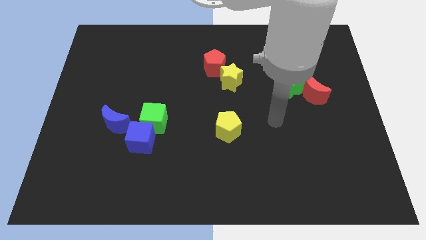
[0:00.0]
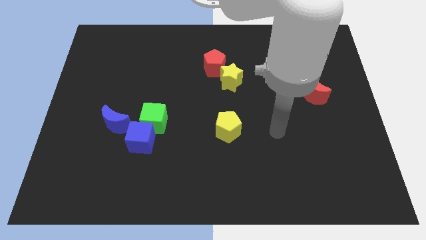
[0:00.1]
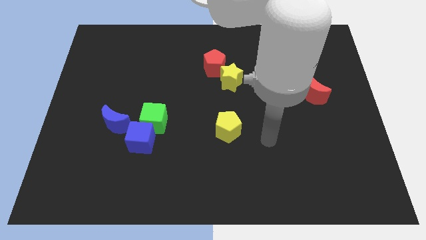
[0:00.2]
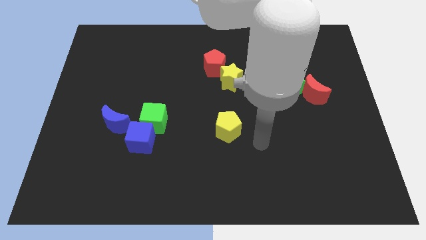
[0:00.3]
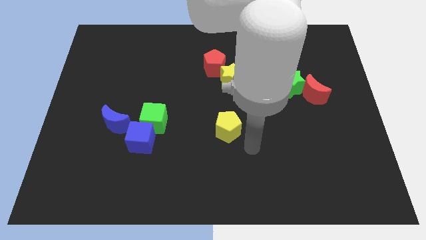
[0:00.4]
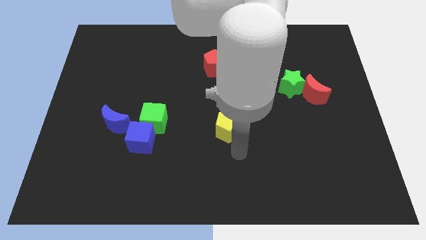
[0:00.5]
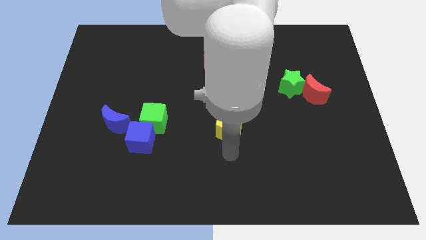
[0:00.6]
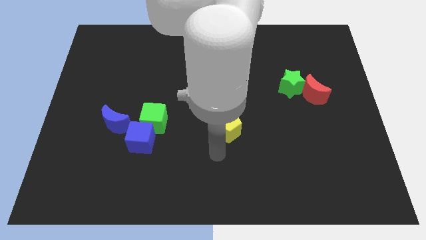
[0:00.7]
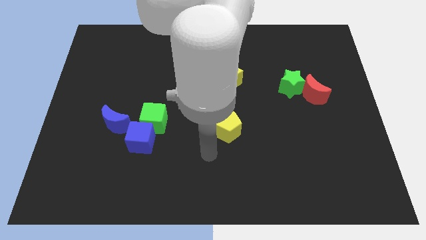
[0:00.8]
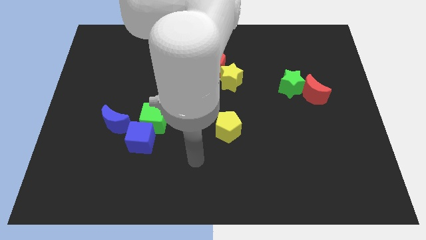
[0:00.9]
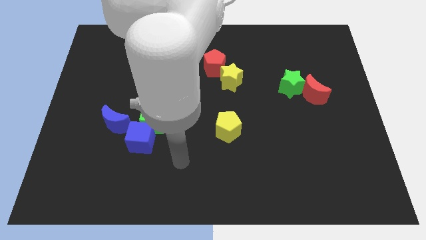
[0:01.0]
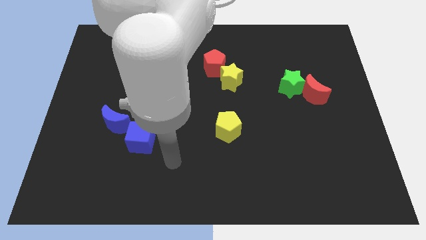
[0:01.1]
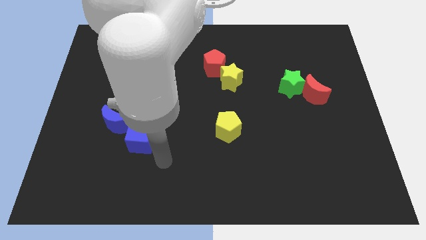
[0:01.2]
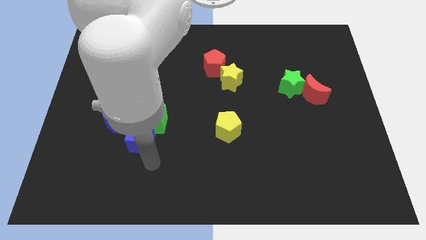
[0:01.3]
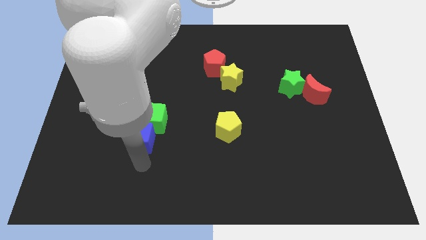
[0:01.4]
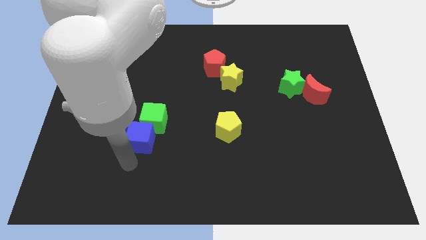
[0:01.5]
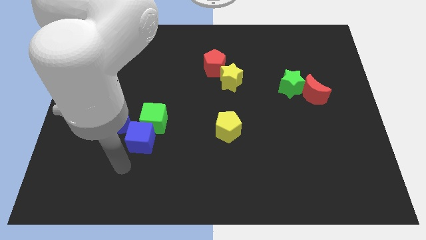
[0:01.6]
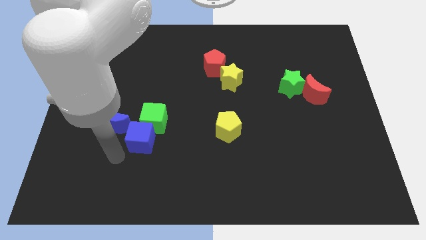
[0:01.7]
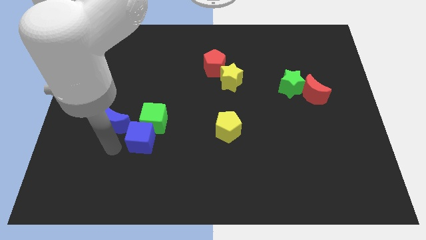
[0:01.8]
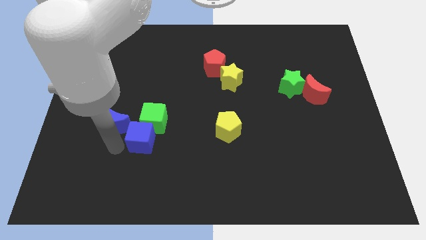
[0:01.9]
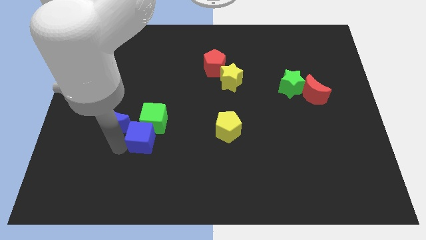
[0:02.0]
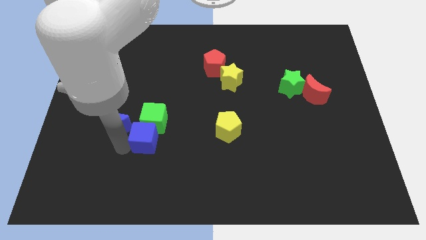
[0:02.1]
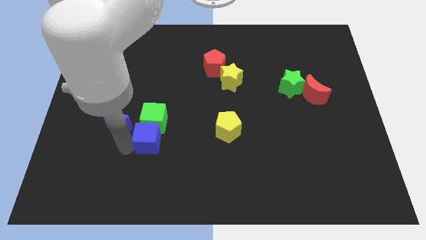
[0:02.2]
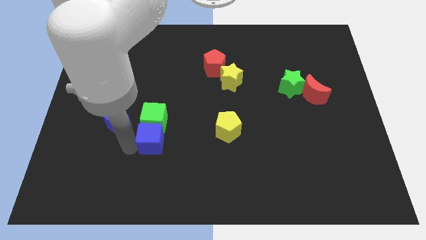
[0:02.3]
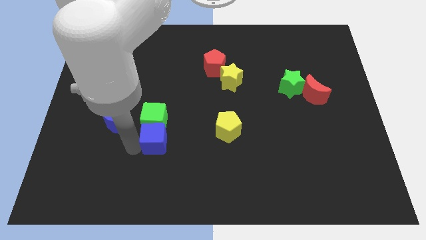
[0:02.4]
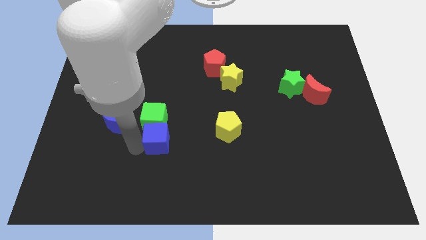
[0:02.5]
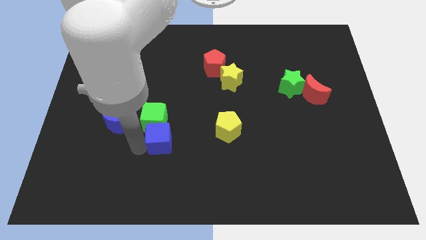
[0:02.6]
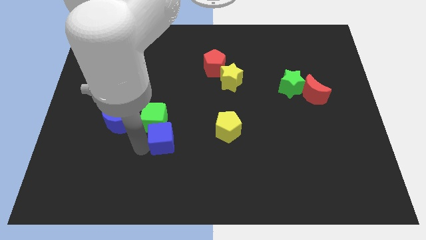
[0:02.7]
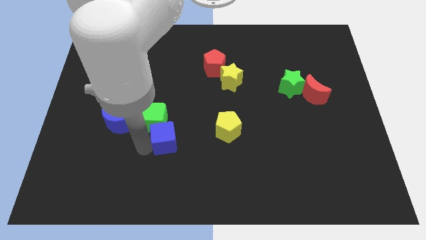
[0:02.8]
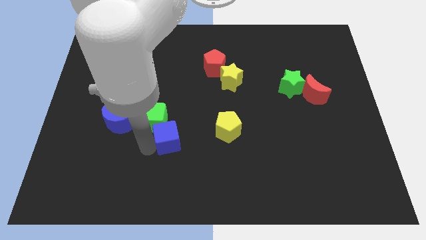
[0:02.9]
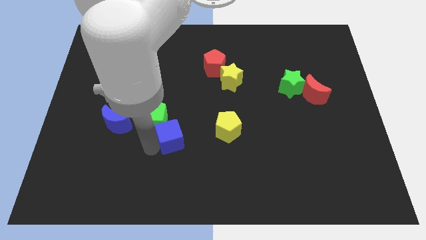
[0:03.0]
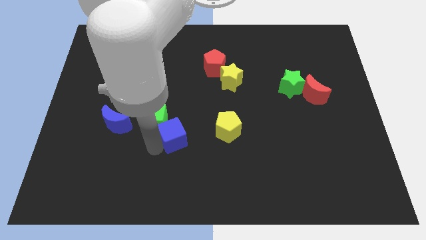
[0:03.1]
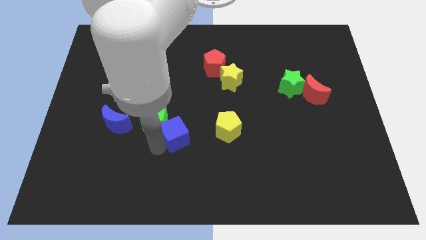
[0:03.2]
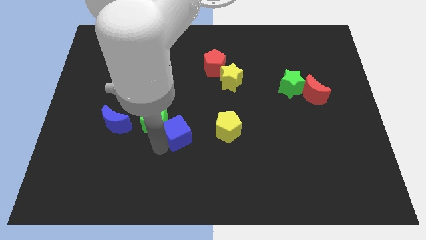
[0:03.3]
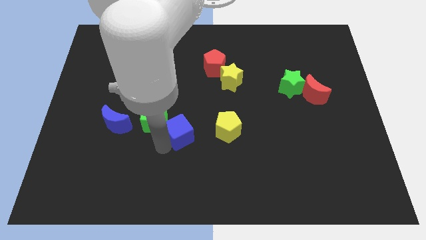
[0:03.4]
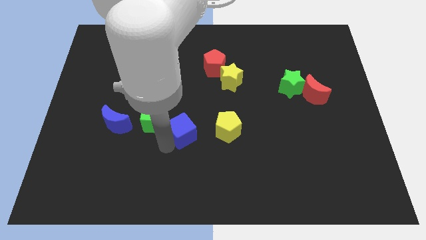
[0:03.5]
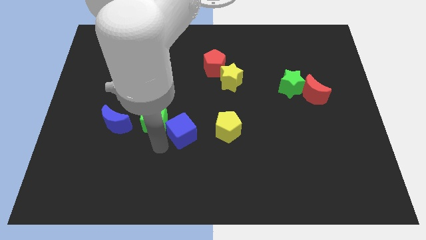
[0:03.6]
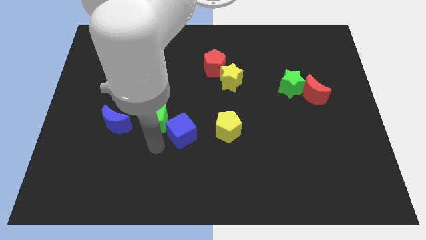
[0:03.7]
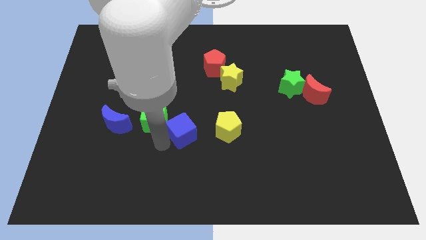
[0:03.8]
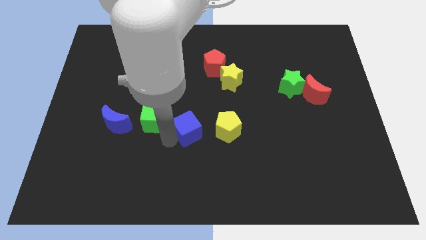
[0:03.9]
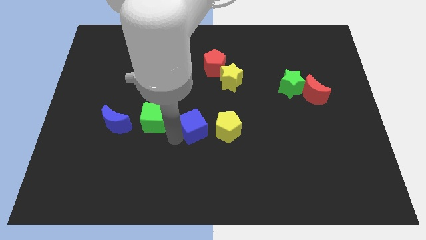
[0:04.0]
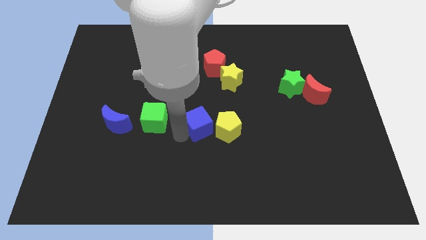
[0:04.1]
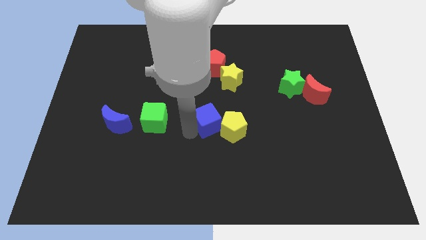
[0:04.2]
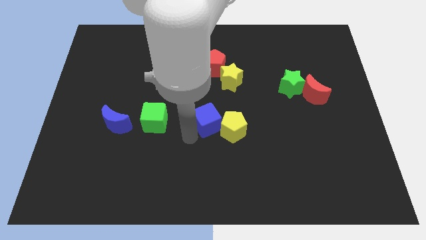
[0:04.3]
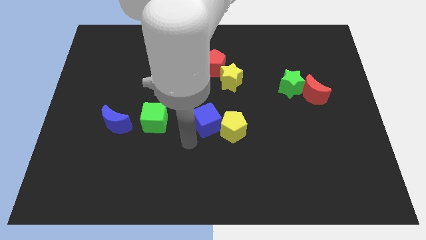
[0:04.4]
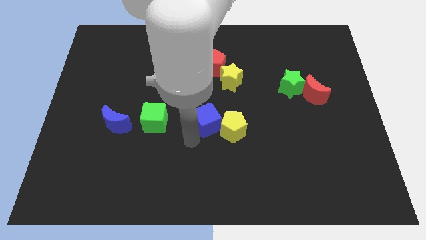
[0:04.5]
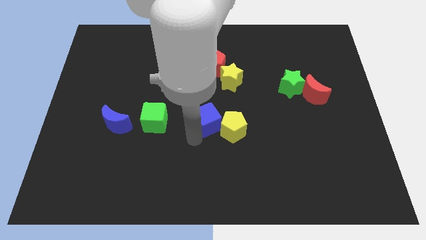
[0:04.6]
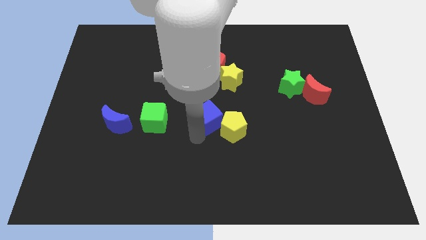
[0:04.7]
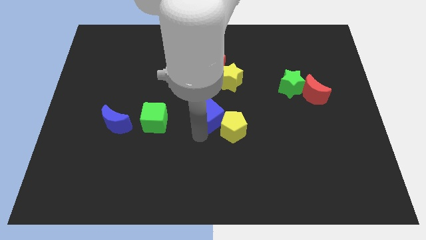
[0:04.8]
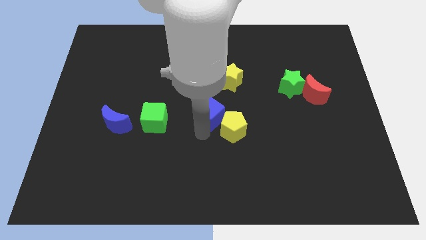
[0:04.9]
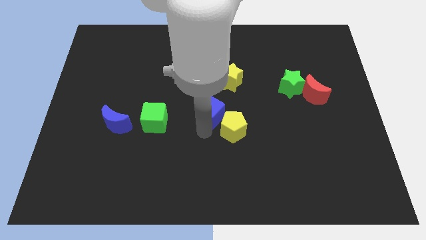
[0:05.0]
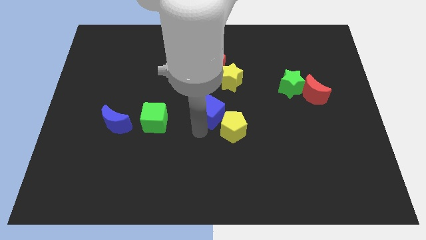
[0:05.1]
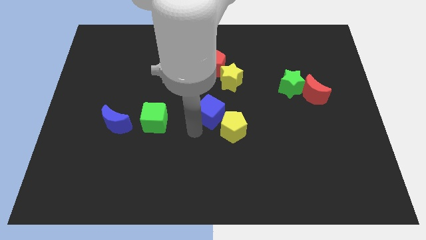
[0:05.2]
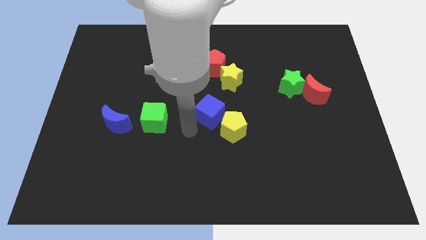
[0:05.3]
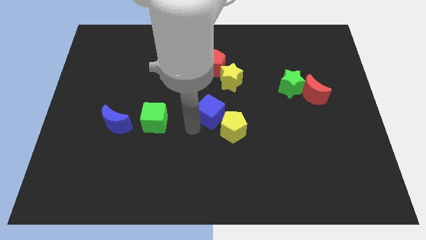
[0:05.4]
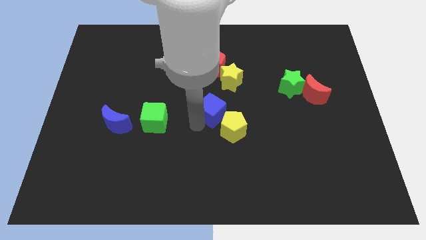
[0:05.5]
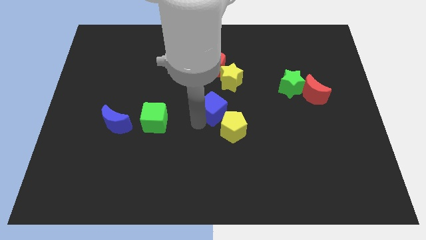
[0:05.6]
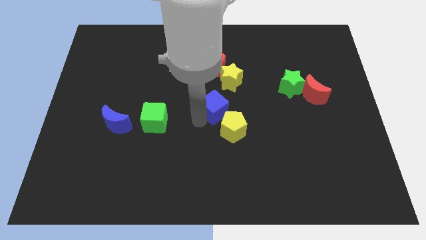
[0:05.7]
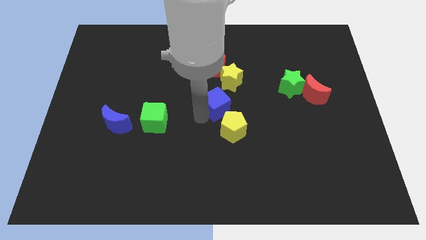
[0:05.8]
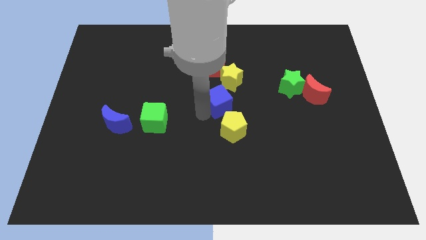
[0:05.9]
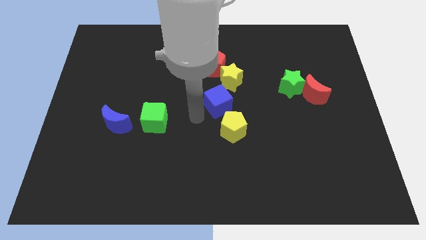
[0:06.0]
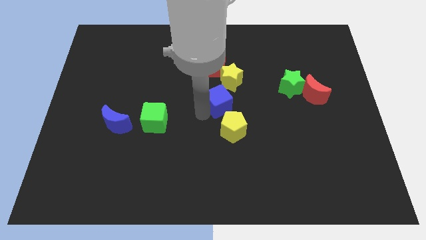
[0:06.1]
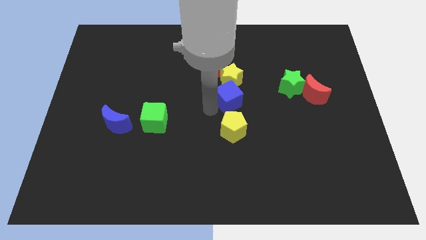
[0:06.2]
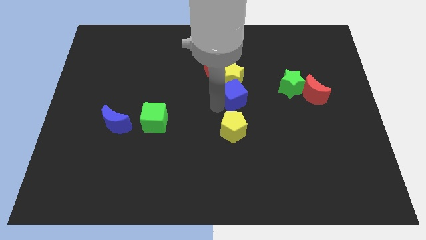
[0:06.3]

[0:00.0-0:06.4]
slide the blue cube just left of the green star

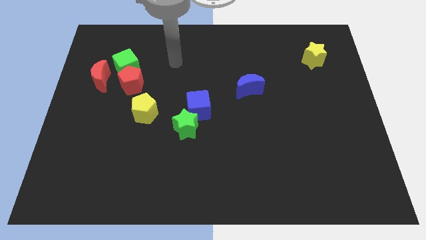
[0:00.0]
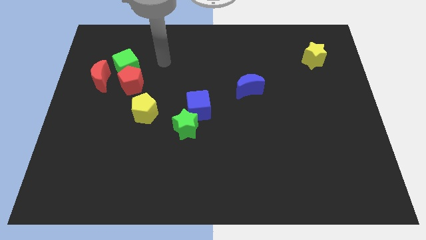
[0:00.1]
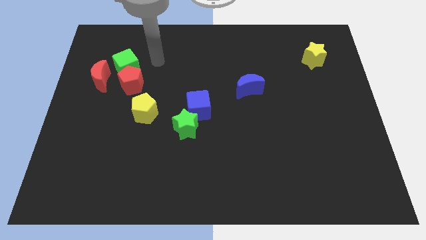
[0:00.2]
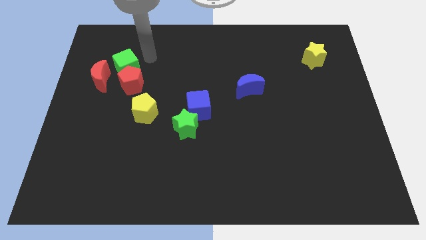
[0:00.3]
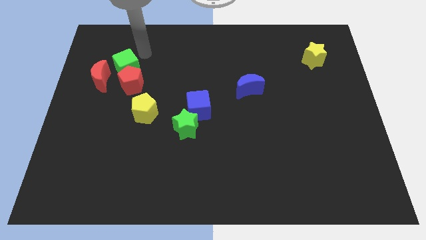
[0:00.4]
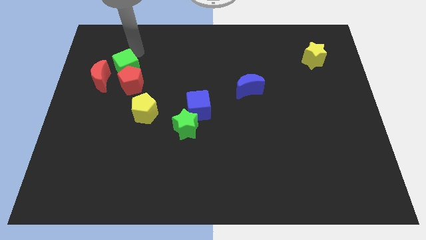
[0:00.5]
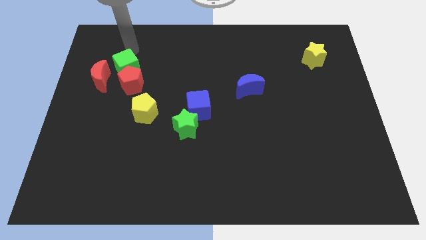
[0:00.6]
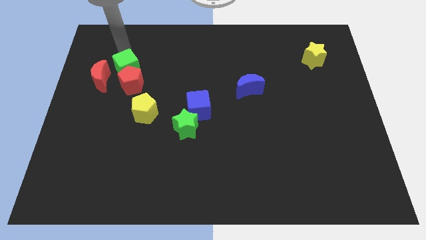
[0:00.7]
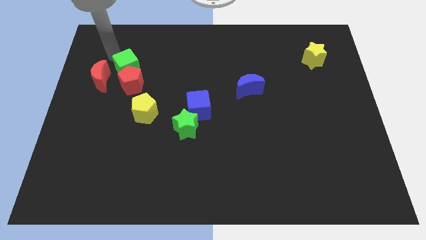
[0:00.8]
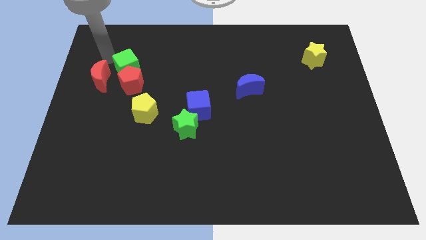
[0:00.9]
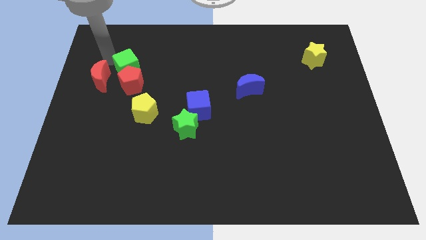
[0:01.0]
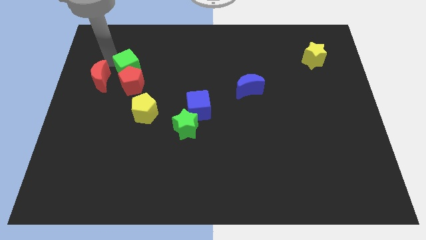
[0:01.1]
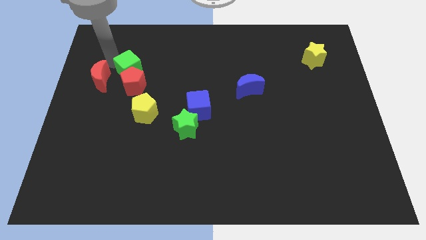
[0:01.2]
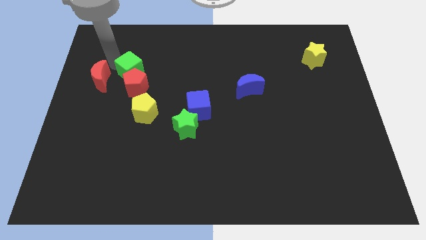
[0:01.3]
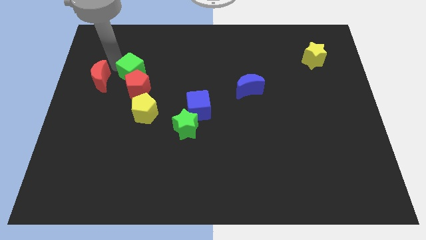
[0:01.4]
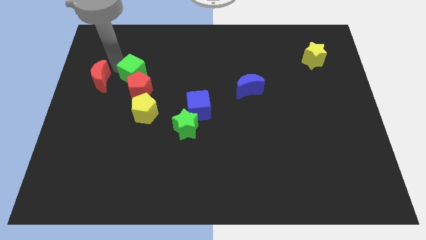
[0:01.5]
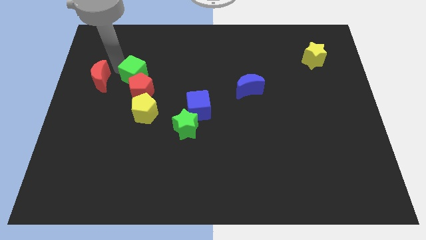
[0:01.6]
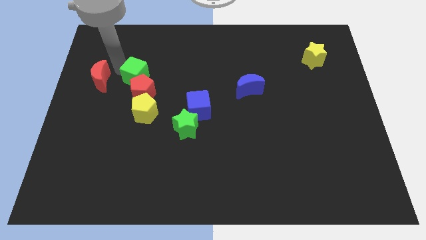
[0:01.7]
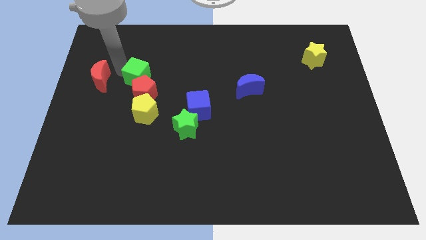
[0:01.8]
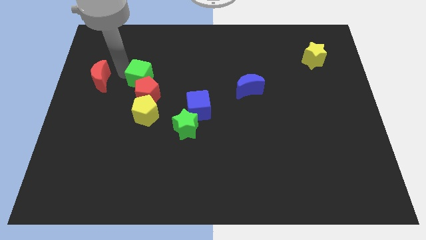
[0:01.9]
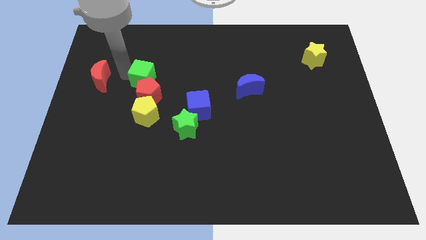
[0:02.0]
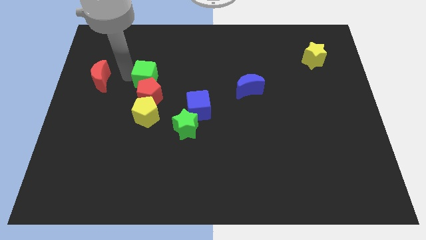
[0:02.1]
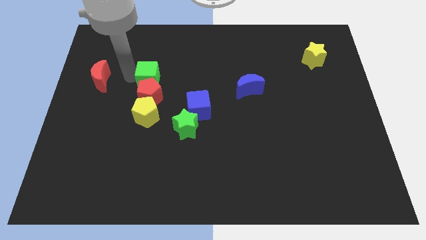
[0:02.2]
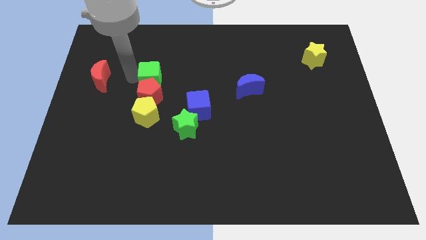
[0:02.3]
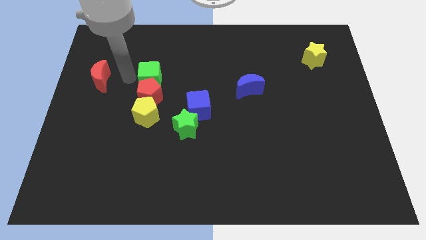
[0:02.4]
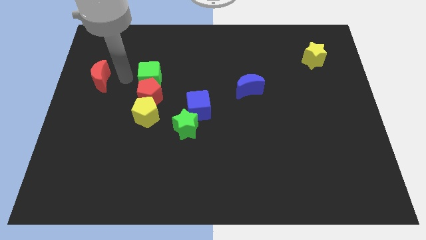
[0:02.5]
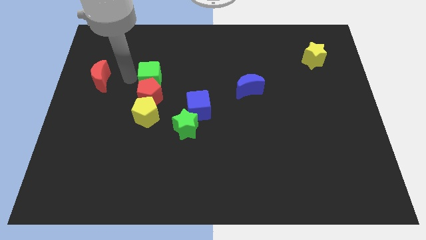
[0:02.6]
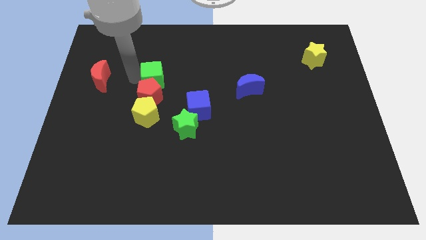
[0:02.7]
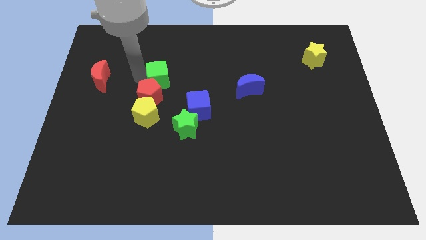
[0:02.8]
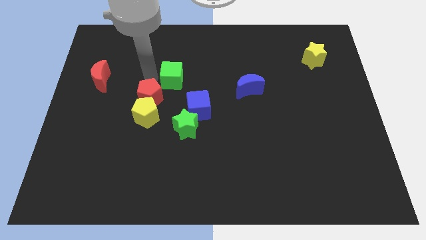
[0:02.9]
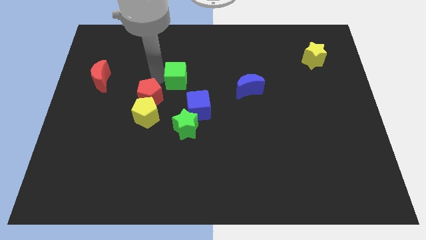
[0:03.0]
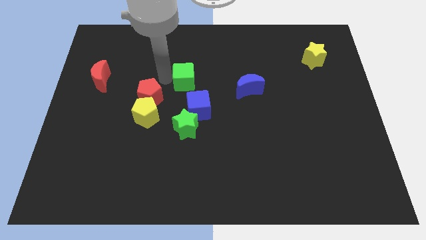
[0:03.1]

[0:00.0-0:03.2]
slide the green cube to the top of the blue cube
